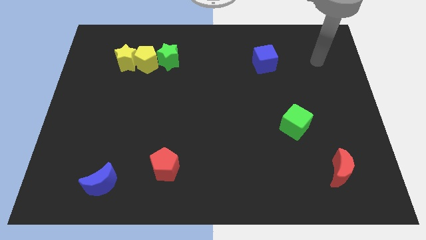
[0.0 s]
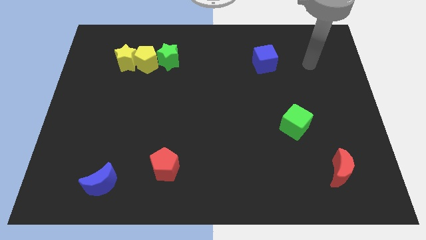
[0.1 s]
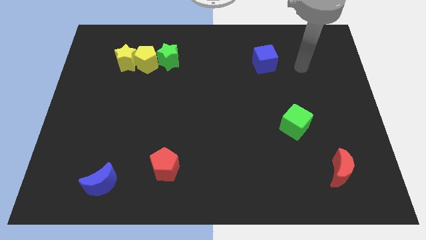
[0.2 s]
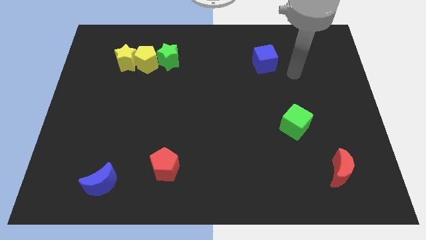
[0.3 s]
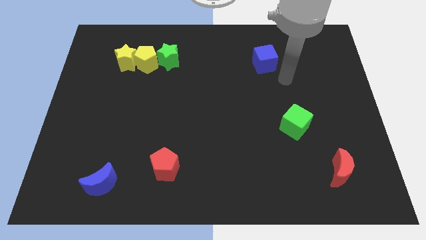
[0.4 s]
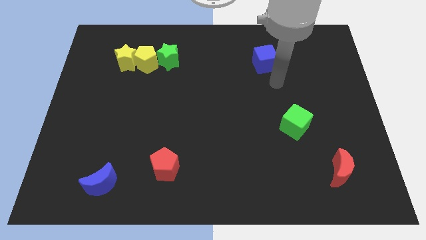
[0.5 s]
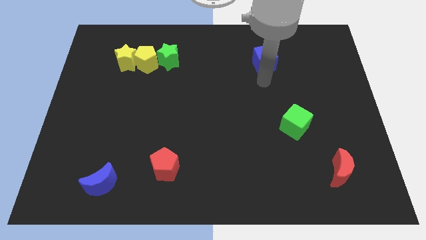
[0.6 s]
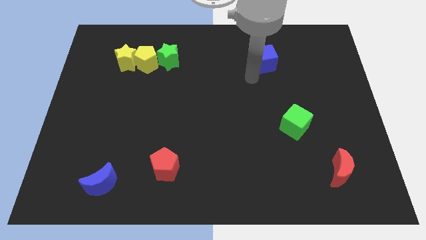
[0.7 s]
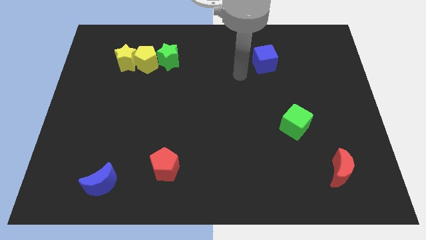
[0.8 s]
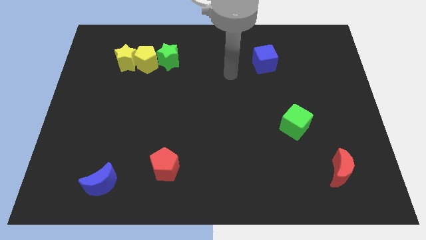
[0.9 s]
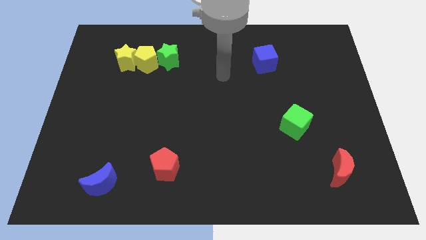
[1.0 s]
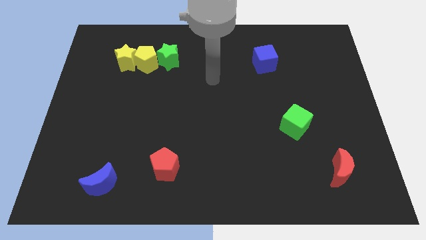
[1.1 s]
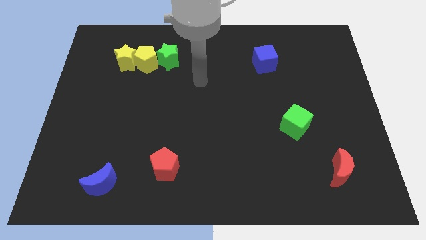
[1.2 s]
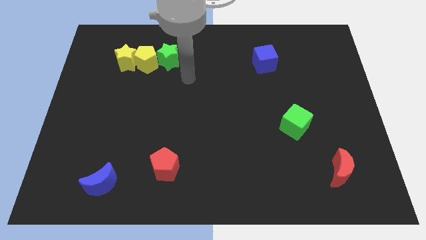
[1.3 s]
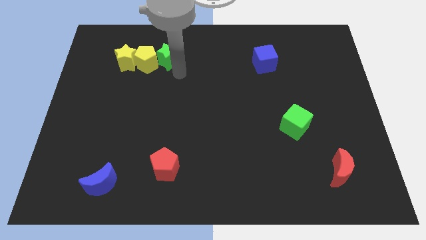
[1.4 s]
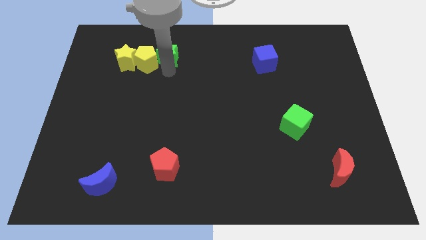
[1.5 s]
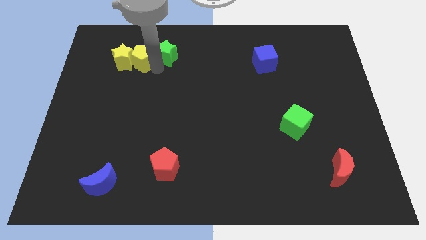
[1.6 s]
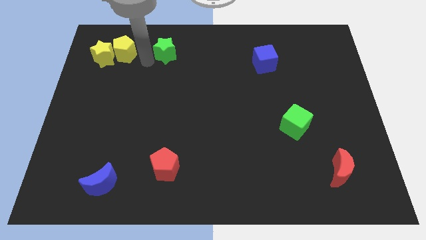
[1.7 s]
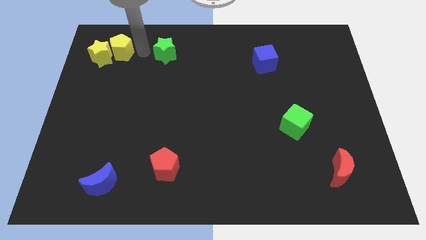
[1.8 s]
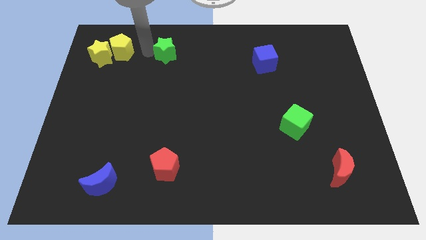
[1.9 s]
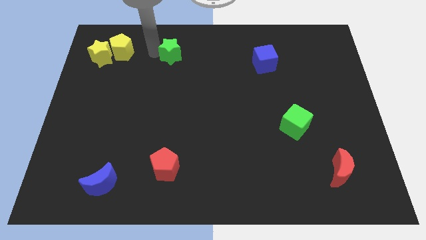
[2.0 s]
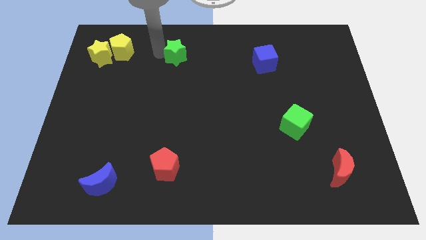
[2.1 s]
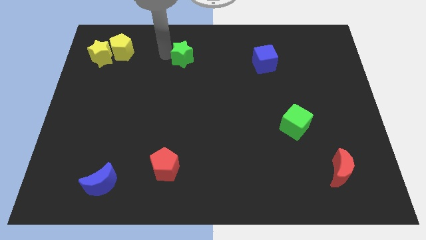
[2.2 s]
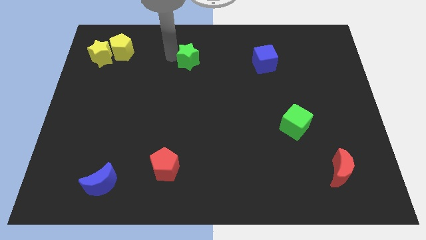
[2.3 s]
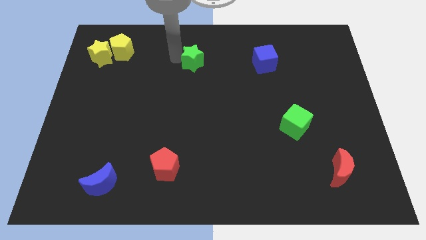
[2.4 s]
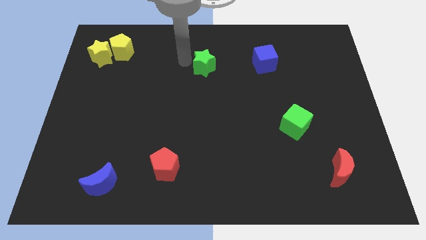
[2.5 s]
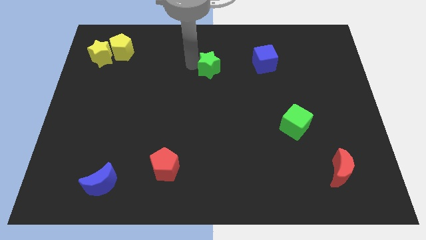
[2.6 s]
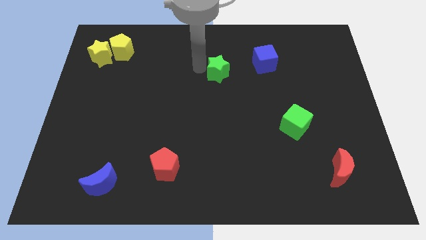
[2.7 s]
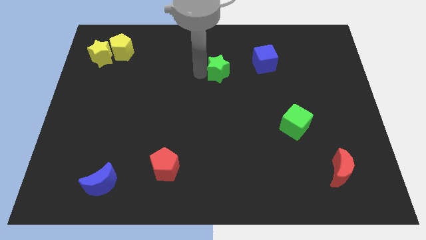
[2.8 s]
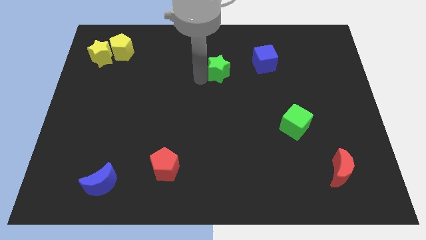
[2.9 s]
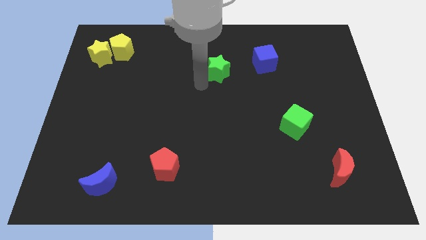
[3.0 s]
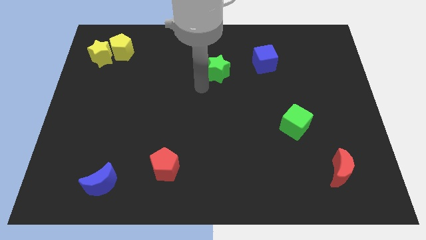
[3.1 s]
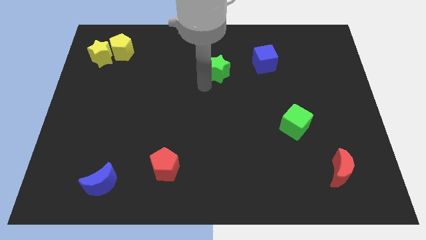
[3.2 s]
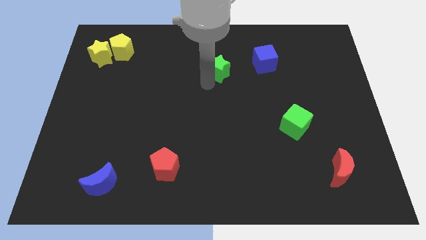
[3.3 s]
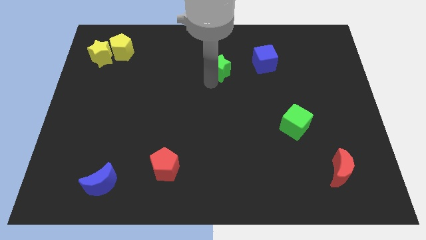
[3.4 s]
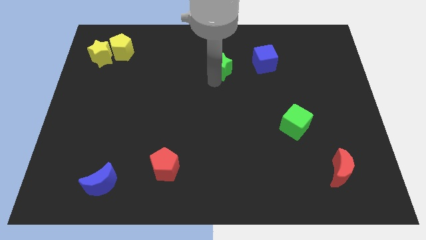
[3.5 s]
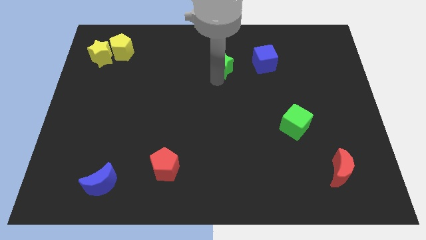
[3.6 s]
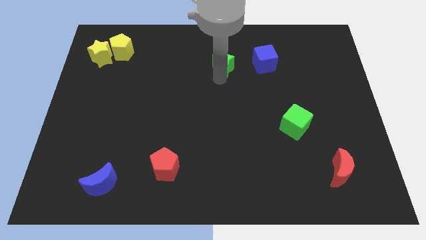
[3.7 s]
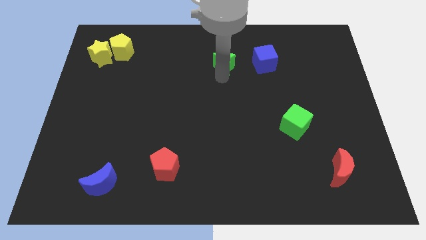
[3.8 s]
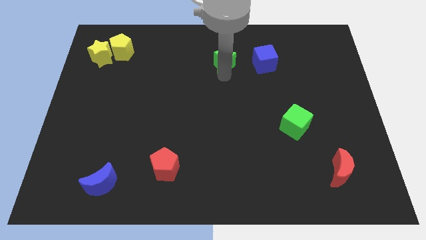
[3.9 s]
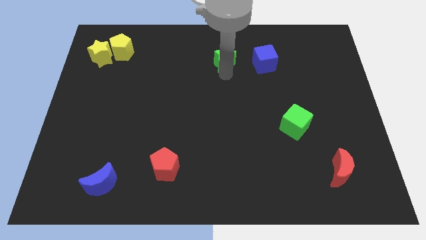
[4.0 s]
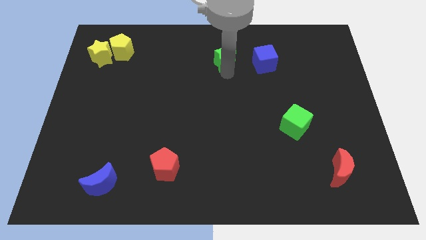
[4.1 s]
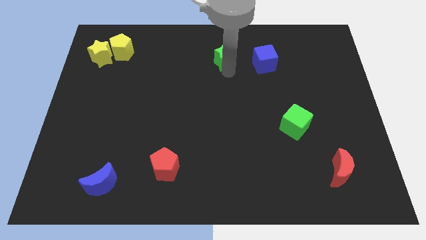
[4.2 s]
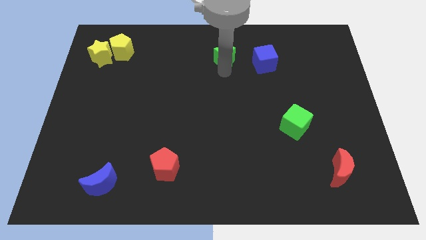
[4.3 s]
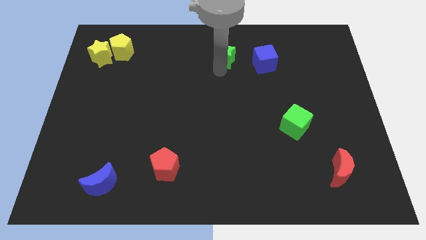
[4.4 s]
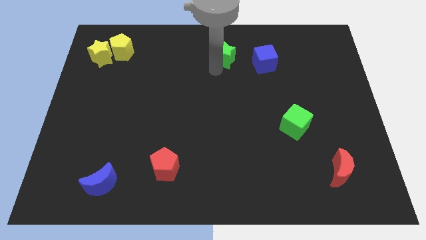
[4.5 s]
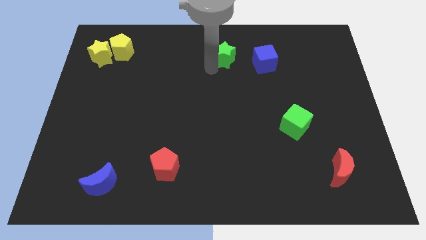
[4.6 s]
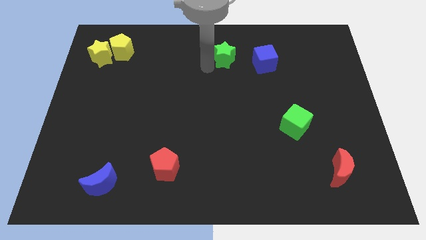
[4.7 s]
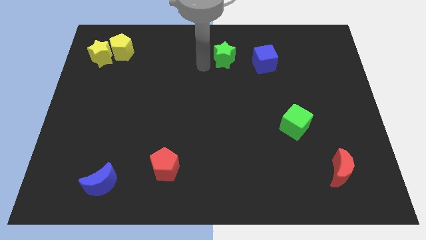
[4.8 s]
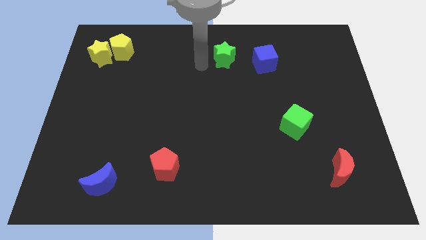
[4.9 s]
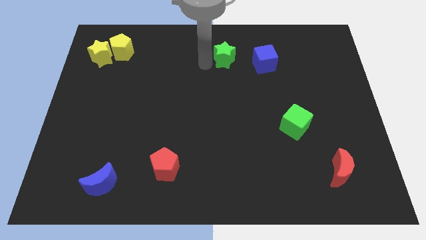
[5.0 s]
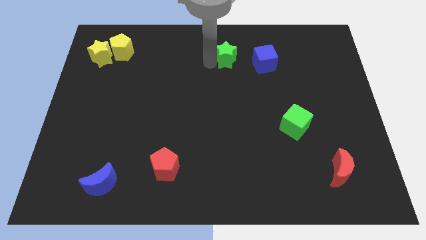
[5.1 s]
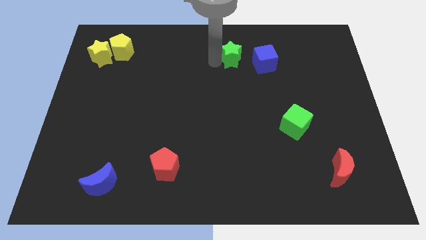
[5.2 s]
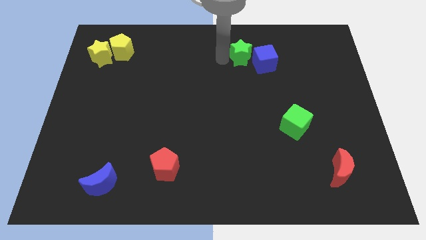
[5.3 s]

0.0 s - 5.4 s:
slide the green star next to the blue cube

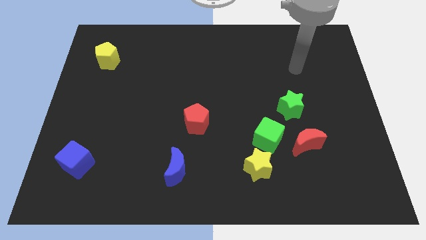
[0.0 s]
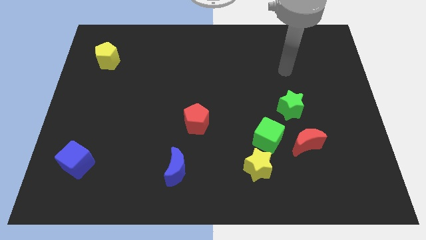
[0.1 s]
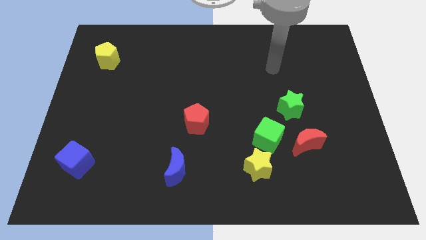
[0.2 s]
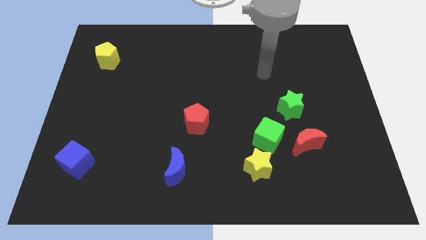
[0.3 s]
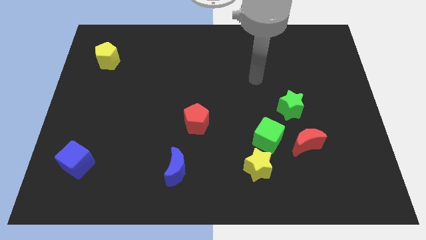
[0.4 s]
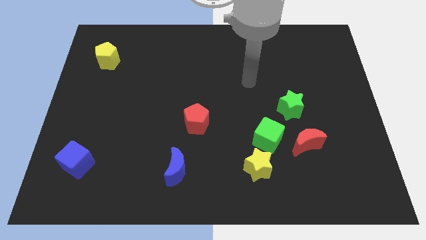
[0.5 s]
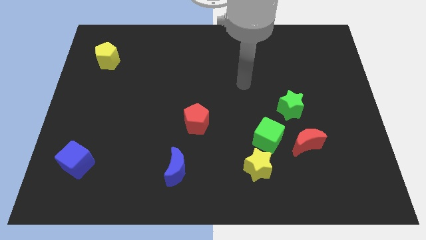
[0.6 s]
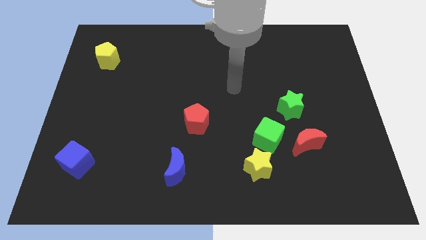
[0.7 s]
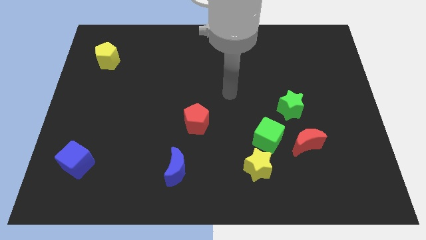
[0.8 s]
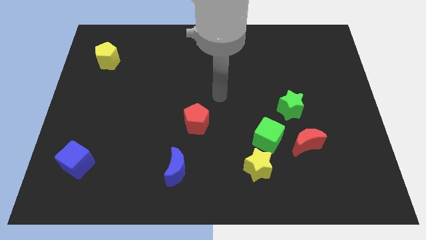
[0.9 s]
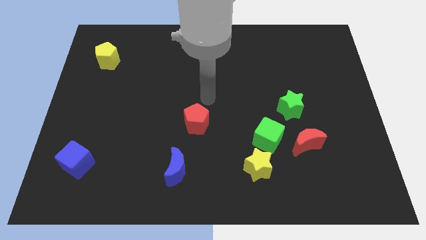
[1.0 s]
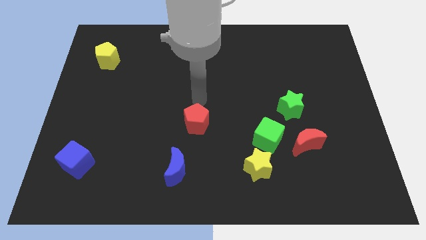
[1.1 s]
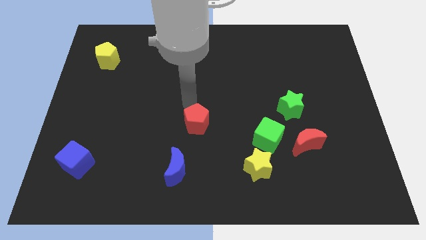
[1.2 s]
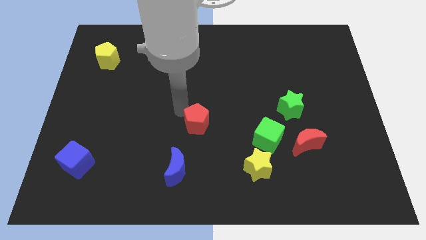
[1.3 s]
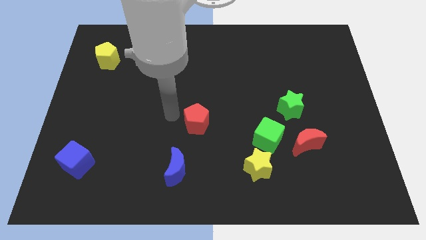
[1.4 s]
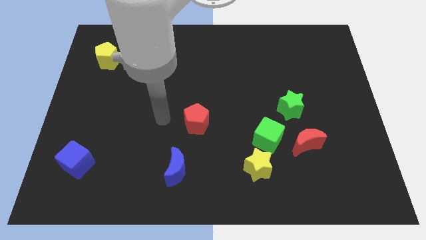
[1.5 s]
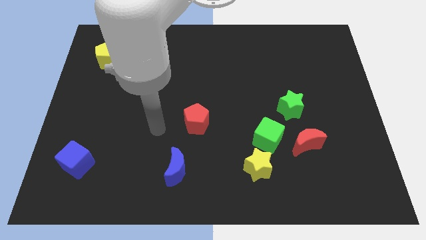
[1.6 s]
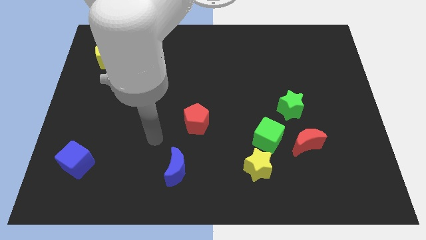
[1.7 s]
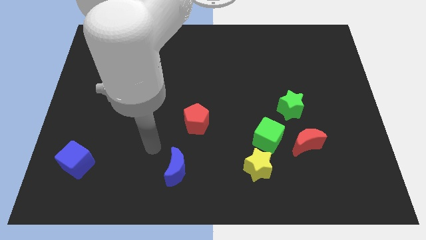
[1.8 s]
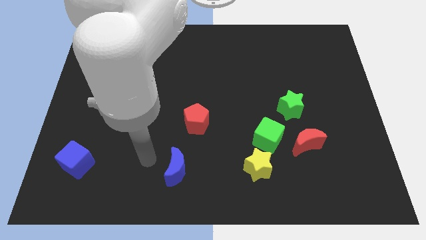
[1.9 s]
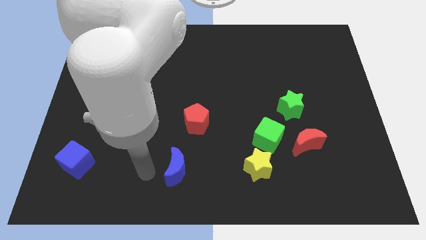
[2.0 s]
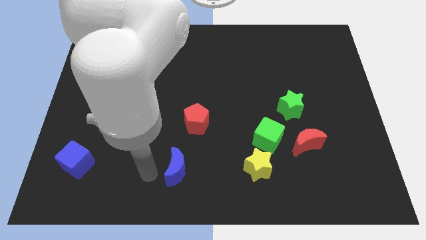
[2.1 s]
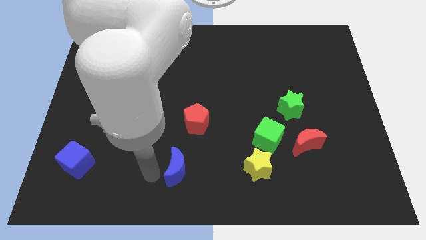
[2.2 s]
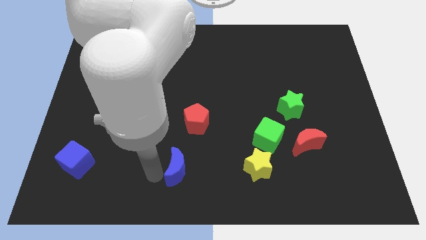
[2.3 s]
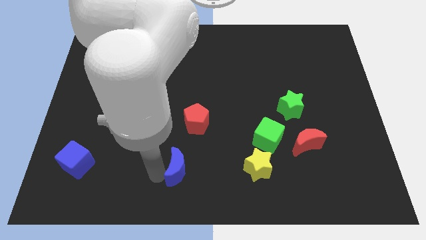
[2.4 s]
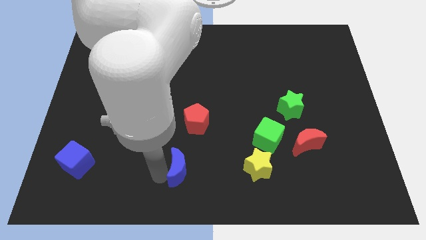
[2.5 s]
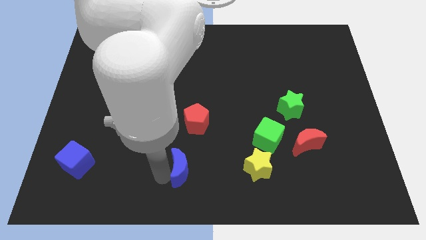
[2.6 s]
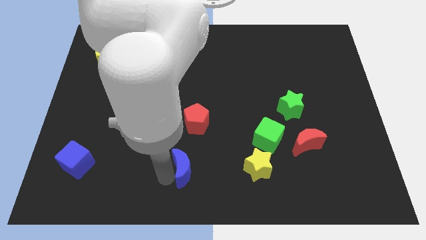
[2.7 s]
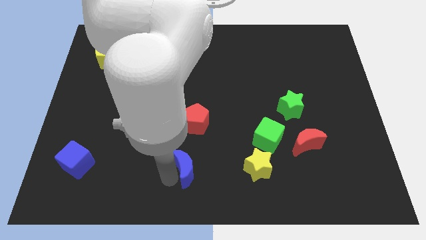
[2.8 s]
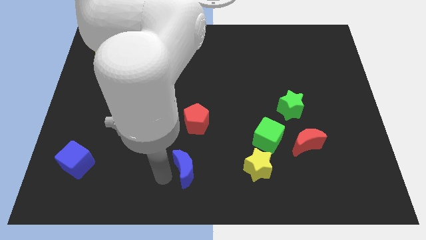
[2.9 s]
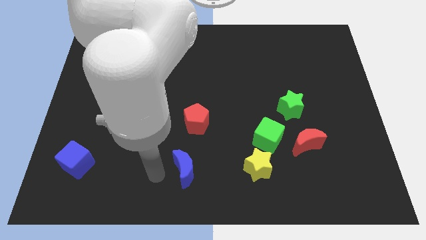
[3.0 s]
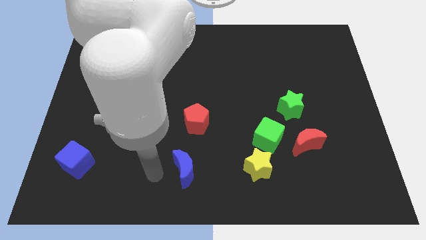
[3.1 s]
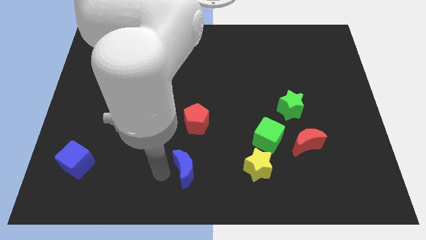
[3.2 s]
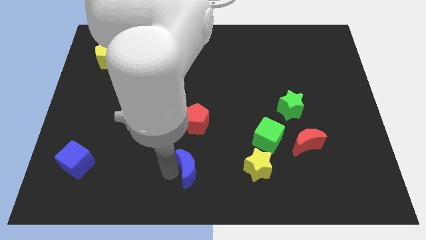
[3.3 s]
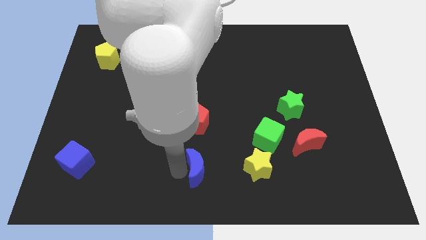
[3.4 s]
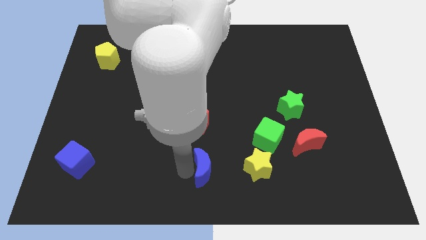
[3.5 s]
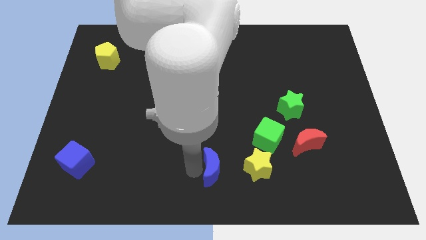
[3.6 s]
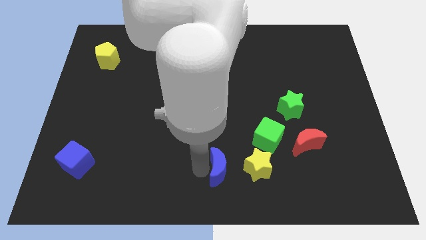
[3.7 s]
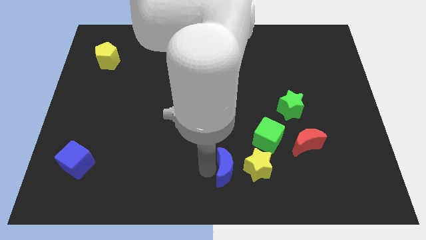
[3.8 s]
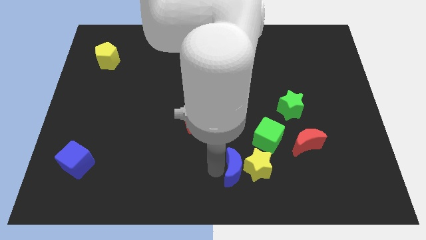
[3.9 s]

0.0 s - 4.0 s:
push the blue moon next to the yellow star
